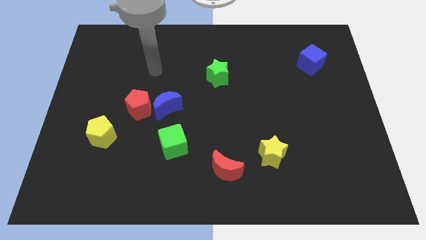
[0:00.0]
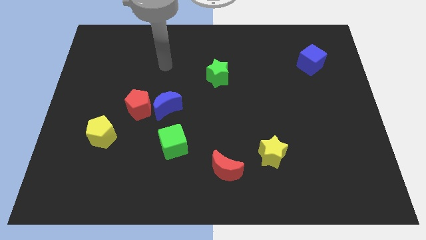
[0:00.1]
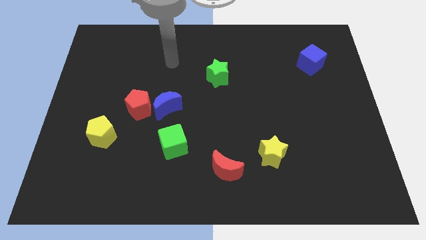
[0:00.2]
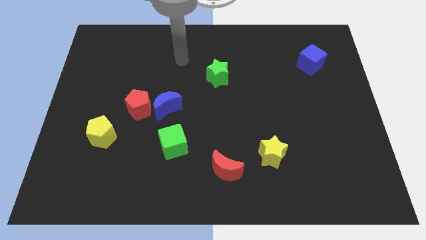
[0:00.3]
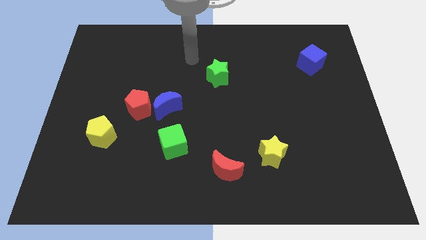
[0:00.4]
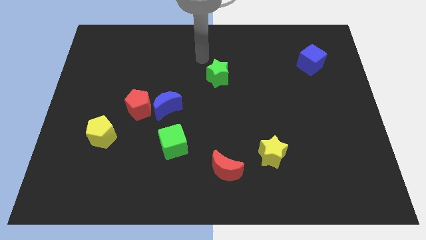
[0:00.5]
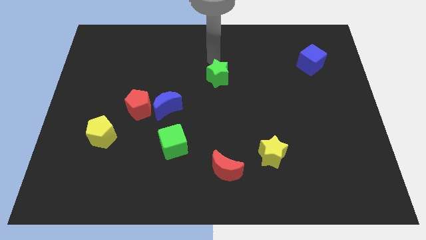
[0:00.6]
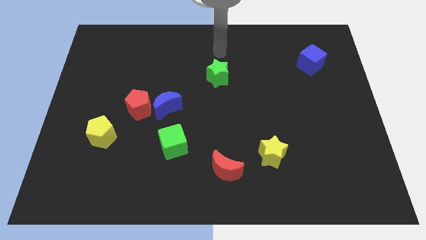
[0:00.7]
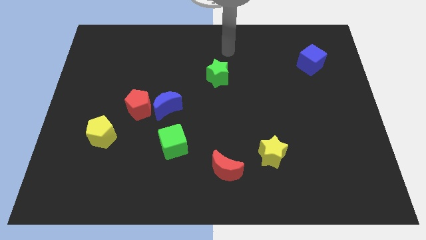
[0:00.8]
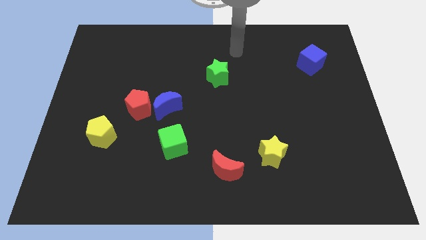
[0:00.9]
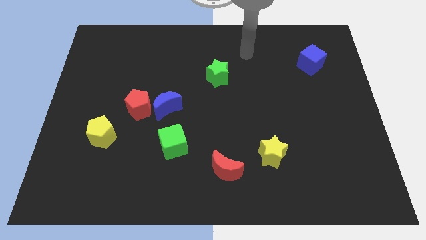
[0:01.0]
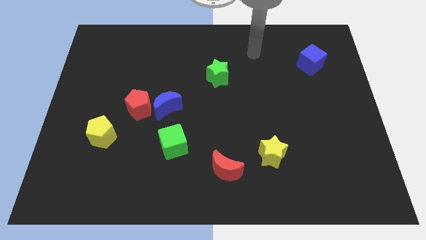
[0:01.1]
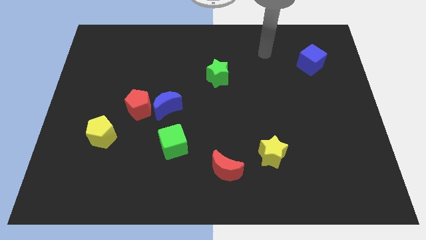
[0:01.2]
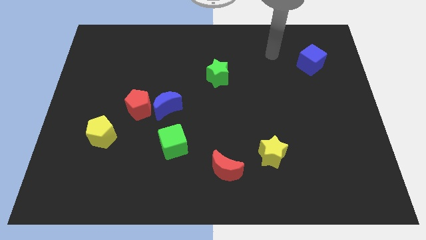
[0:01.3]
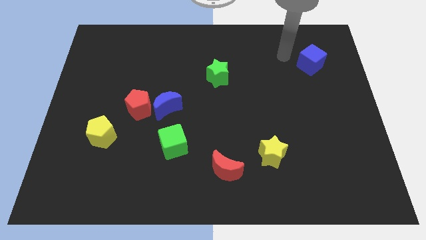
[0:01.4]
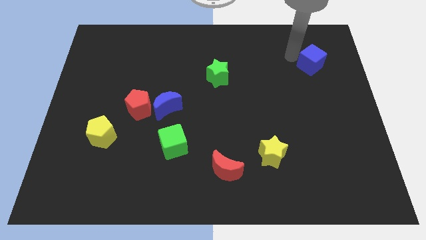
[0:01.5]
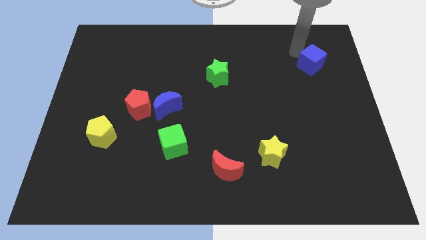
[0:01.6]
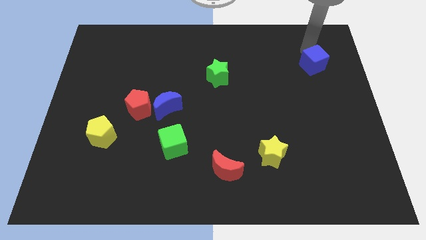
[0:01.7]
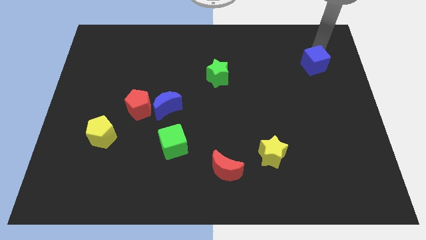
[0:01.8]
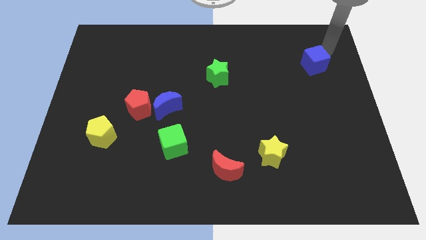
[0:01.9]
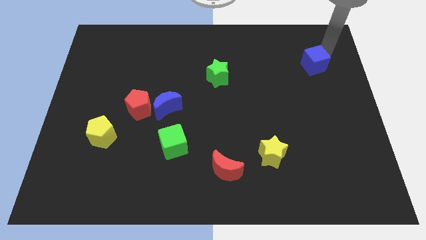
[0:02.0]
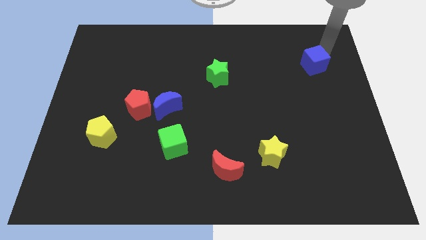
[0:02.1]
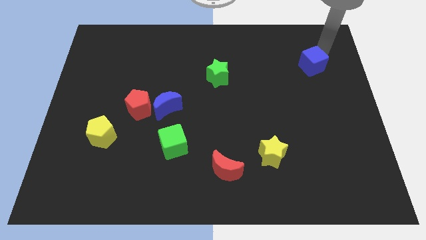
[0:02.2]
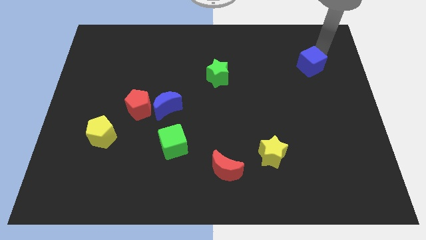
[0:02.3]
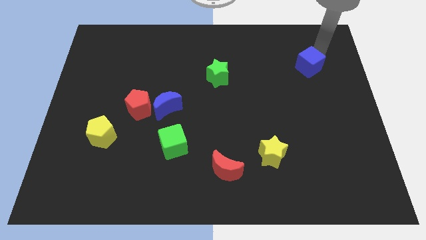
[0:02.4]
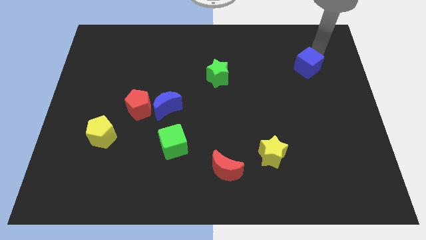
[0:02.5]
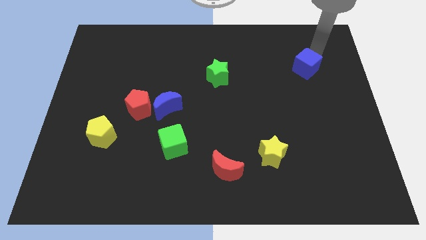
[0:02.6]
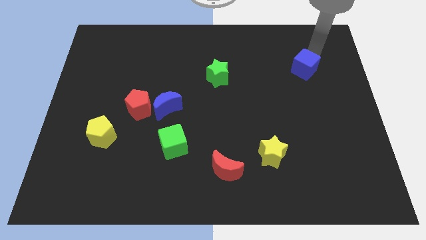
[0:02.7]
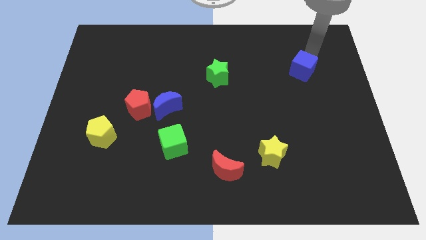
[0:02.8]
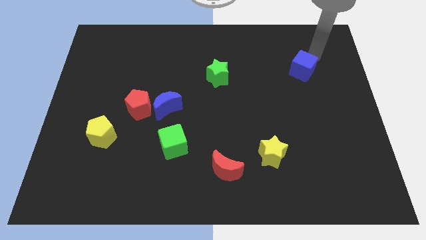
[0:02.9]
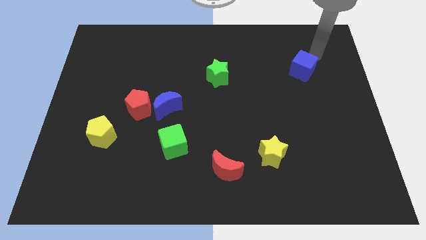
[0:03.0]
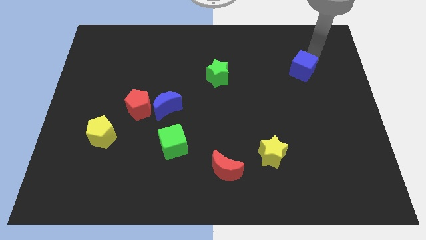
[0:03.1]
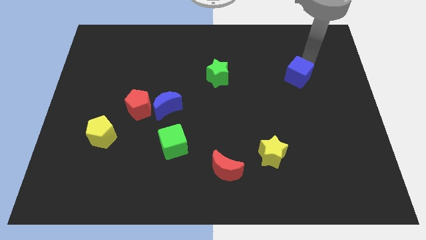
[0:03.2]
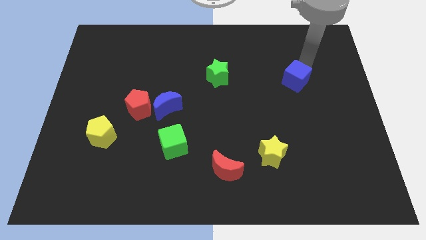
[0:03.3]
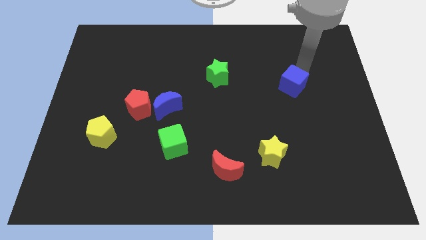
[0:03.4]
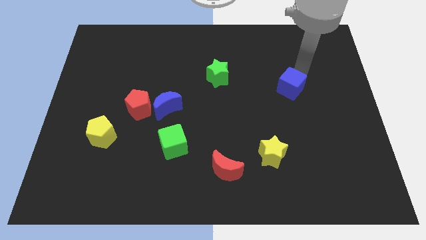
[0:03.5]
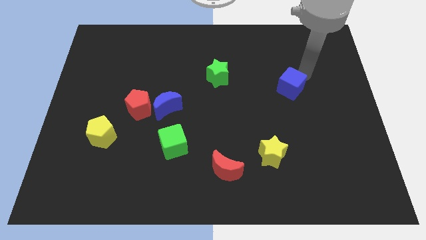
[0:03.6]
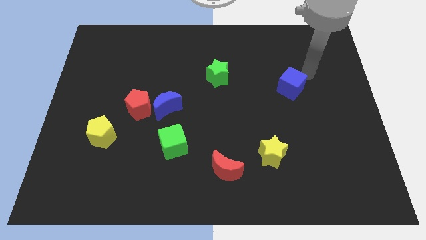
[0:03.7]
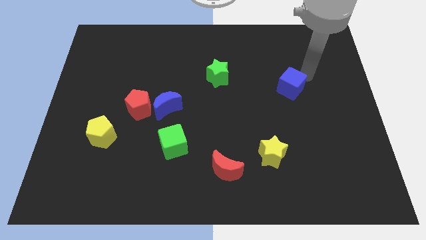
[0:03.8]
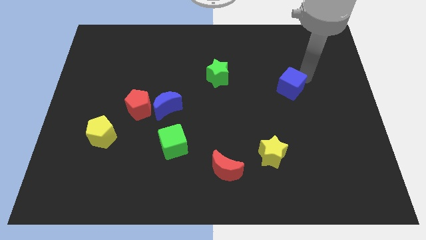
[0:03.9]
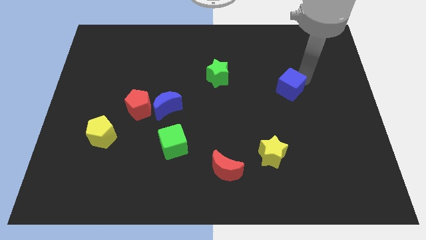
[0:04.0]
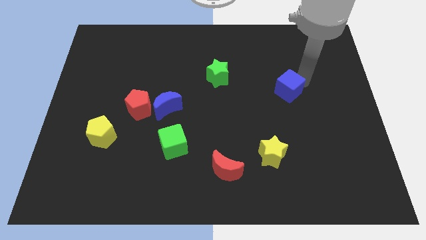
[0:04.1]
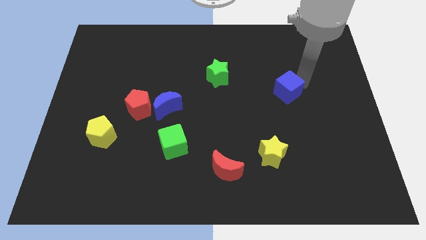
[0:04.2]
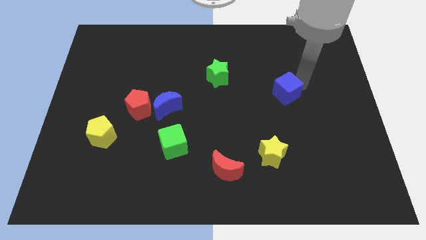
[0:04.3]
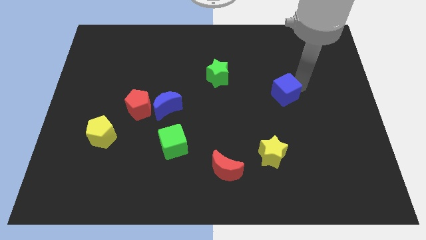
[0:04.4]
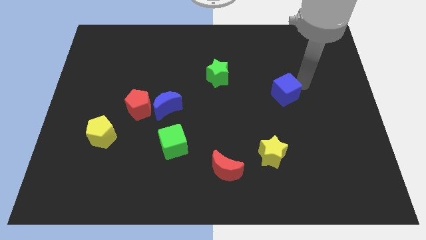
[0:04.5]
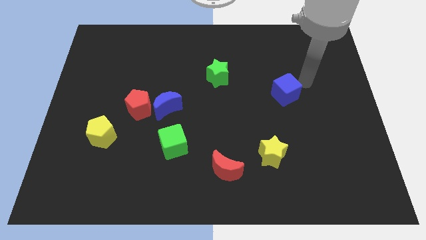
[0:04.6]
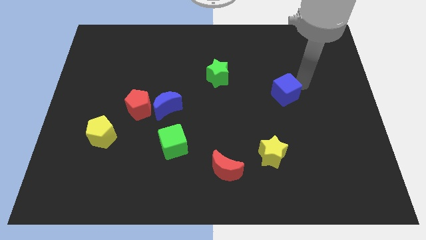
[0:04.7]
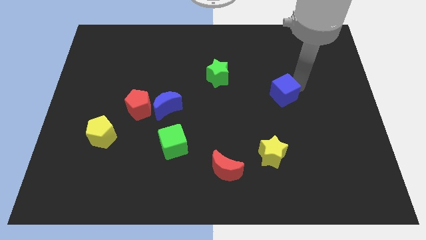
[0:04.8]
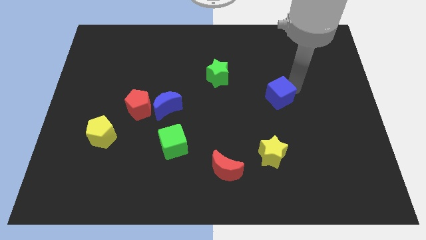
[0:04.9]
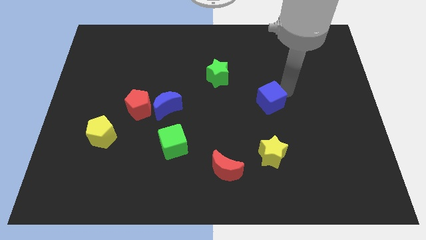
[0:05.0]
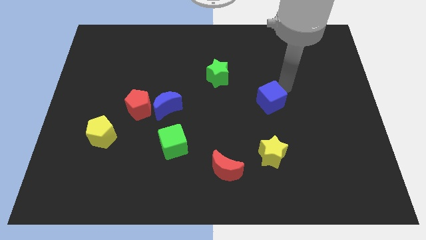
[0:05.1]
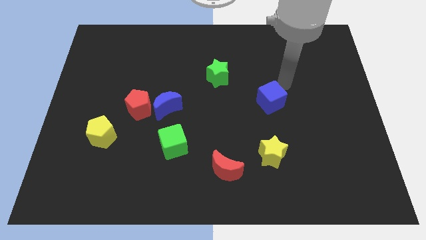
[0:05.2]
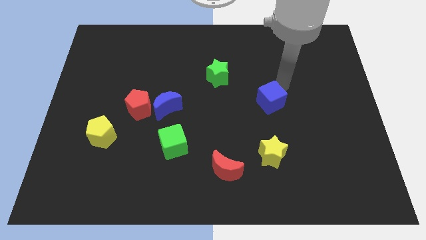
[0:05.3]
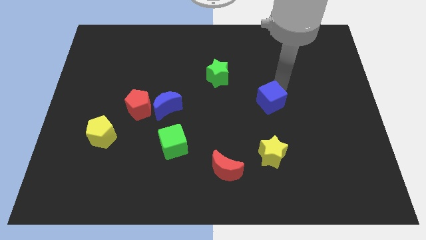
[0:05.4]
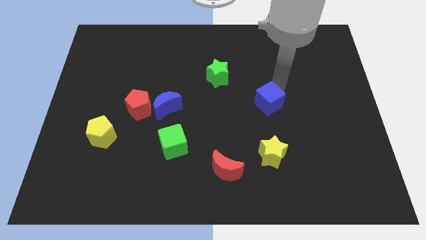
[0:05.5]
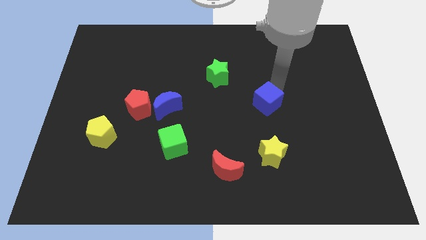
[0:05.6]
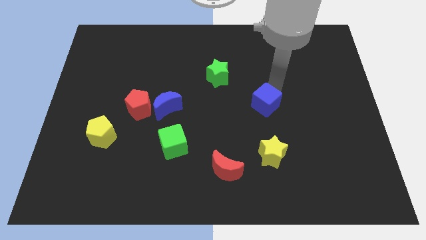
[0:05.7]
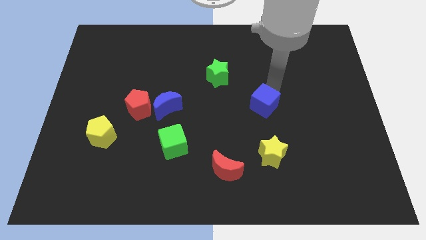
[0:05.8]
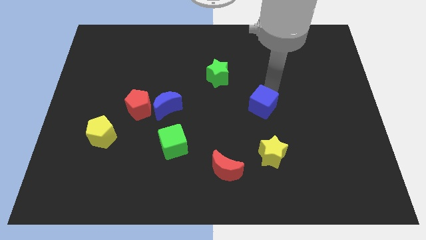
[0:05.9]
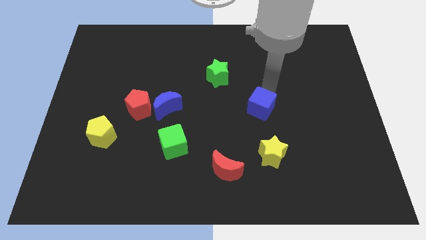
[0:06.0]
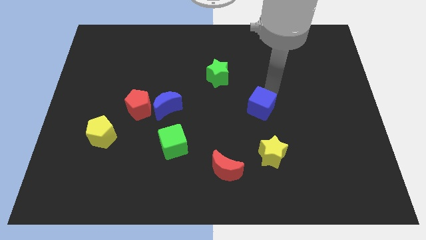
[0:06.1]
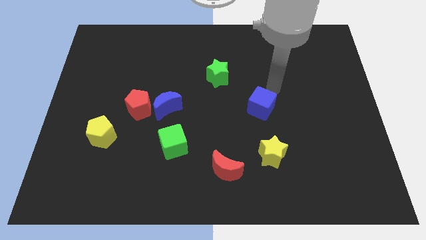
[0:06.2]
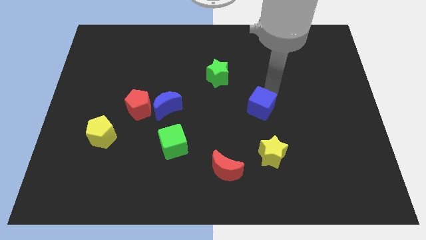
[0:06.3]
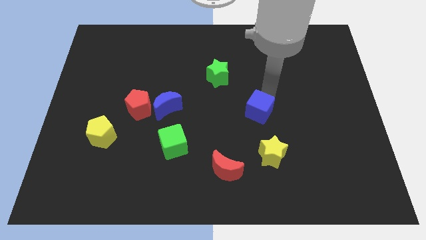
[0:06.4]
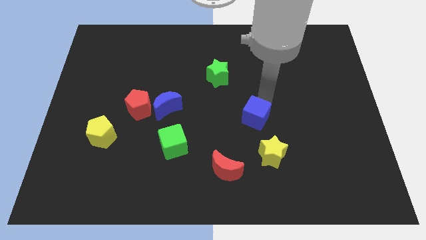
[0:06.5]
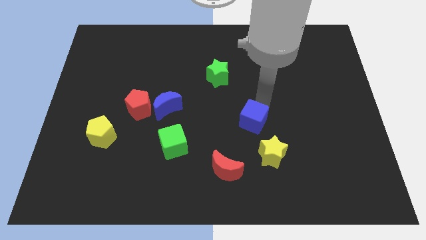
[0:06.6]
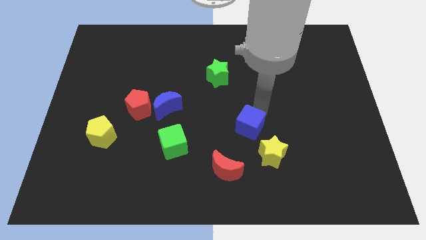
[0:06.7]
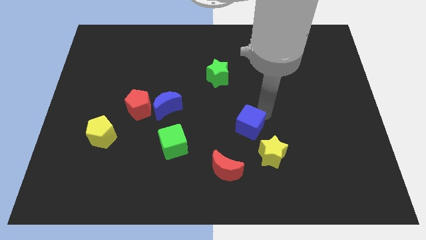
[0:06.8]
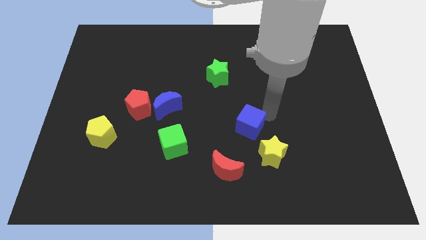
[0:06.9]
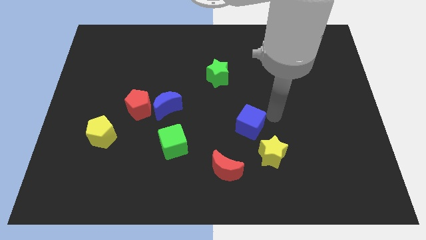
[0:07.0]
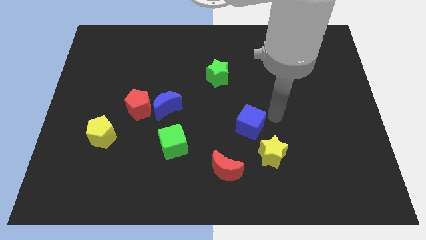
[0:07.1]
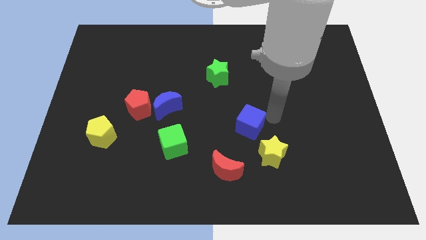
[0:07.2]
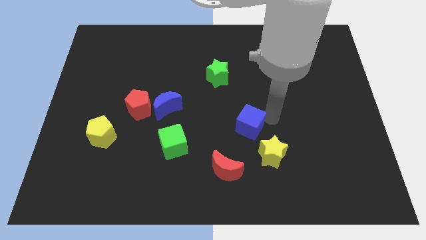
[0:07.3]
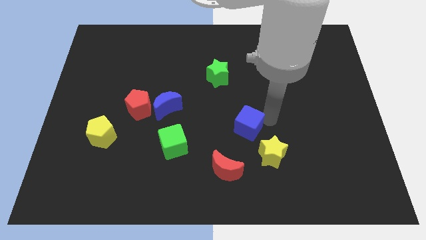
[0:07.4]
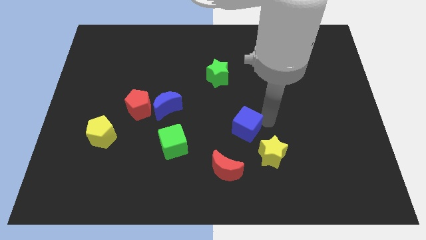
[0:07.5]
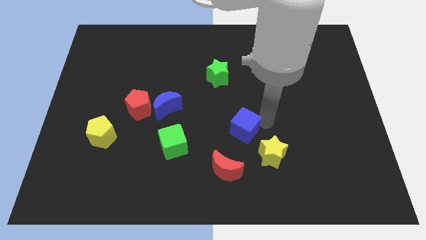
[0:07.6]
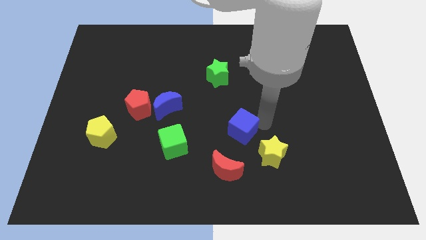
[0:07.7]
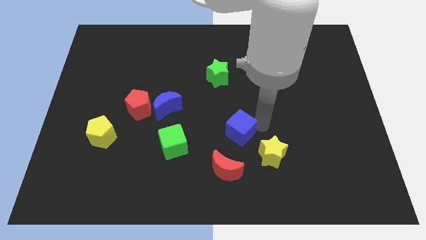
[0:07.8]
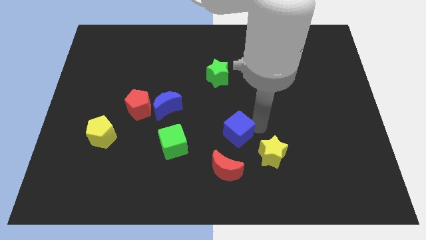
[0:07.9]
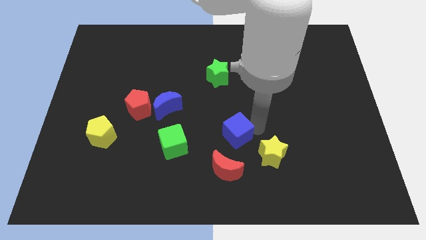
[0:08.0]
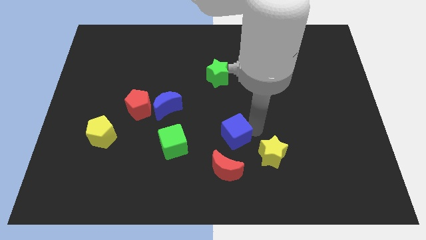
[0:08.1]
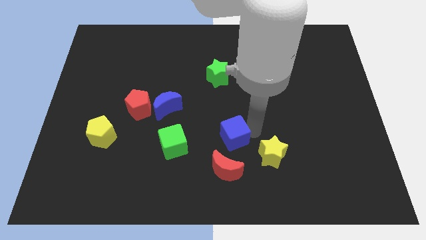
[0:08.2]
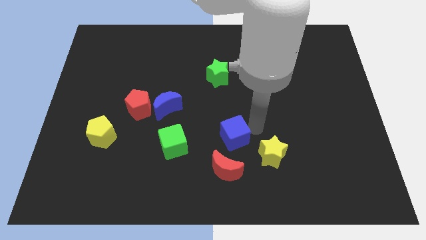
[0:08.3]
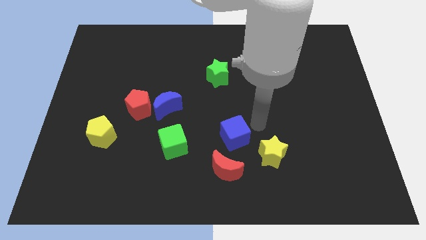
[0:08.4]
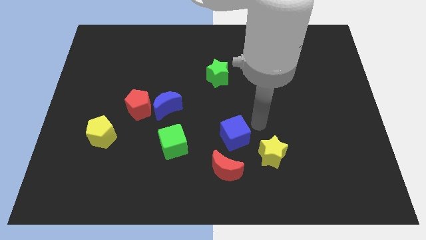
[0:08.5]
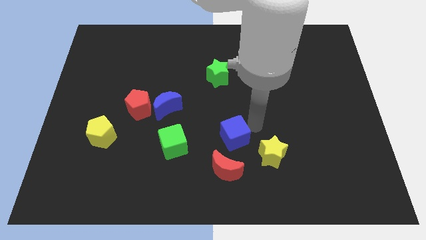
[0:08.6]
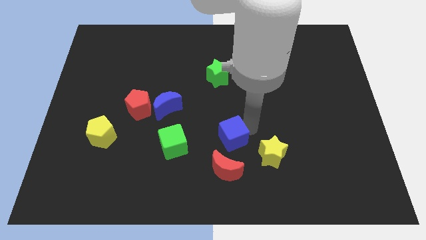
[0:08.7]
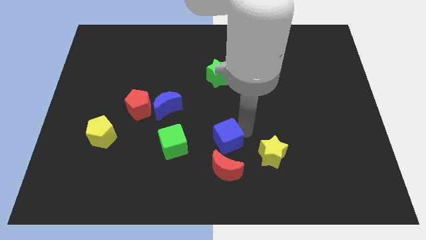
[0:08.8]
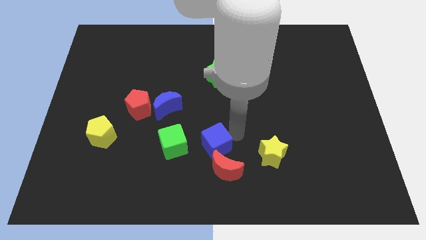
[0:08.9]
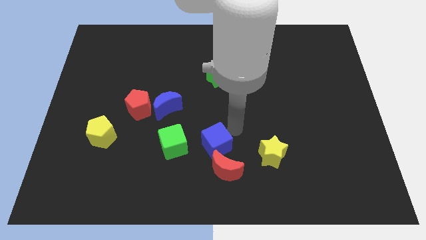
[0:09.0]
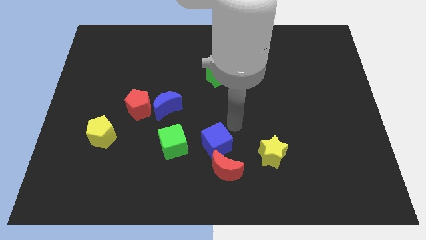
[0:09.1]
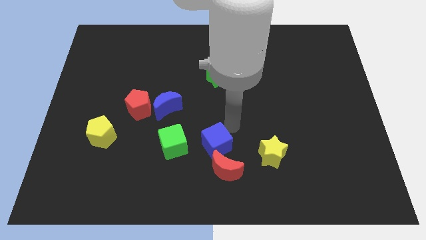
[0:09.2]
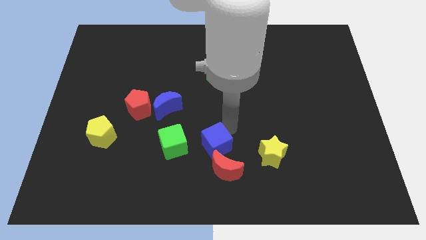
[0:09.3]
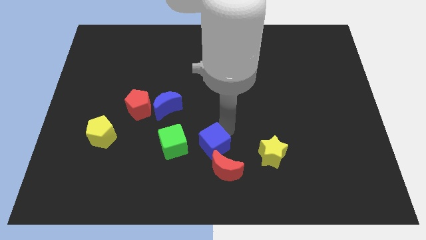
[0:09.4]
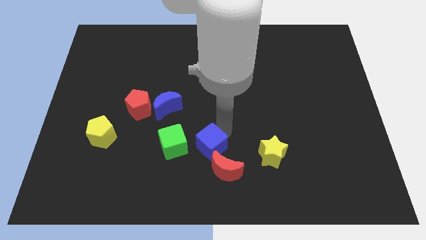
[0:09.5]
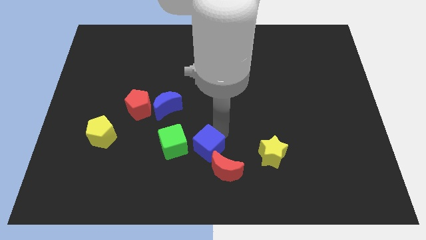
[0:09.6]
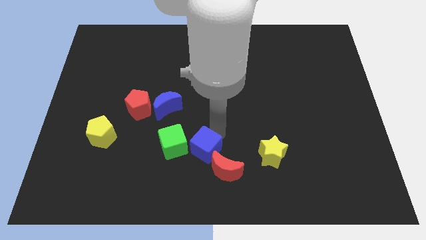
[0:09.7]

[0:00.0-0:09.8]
push the blue cube to the bottom right side of the green cube
